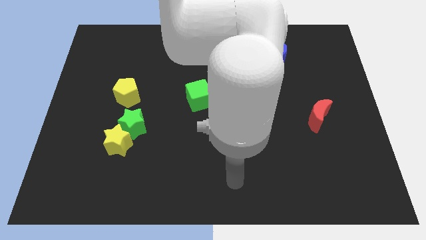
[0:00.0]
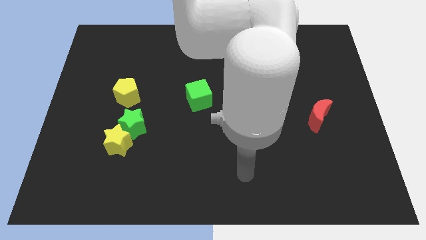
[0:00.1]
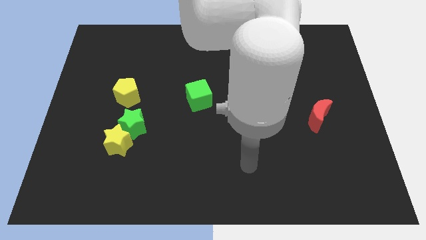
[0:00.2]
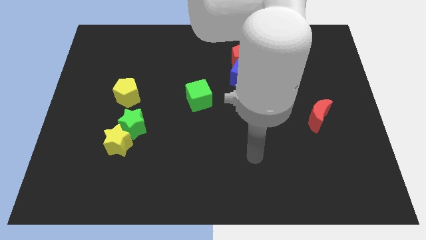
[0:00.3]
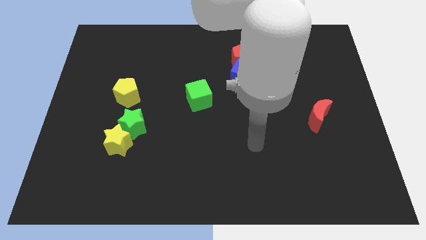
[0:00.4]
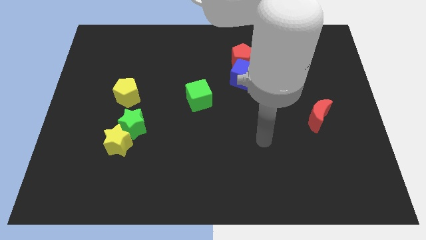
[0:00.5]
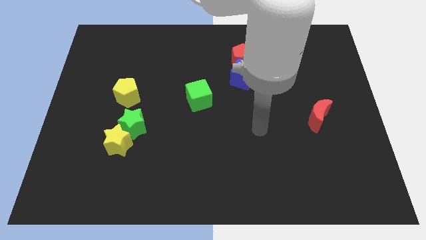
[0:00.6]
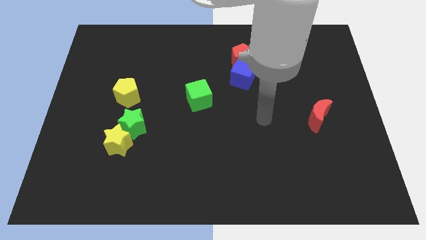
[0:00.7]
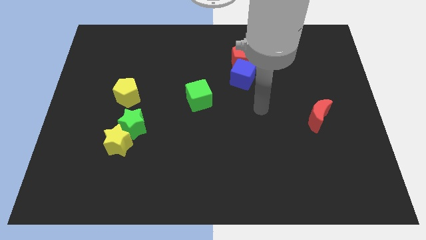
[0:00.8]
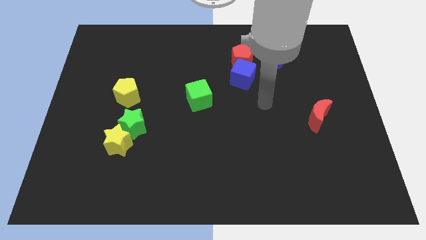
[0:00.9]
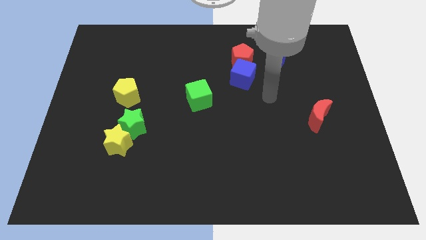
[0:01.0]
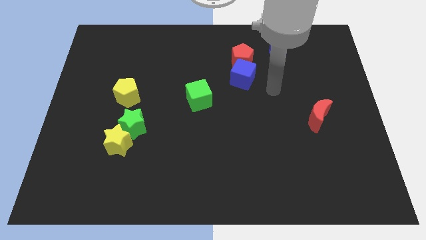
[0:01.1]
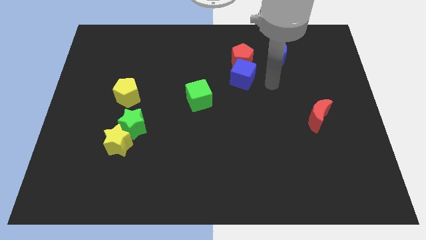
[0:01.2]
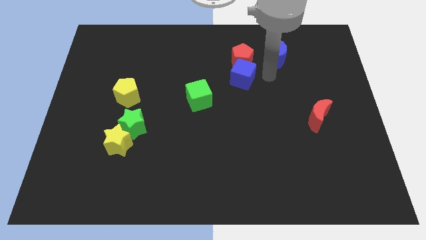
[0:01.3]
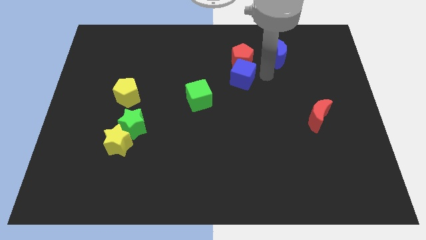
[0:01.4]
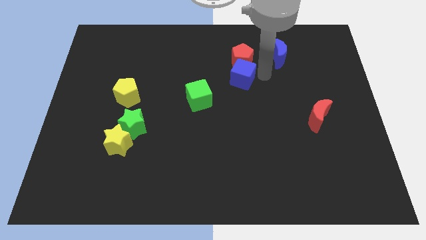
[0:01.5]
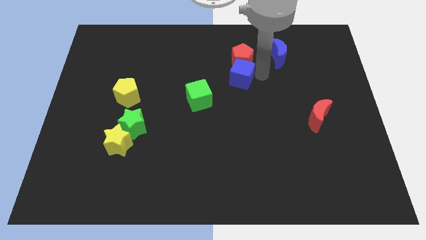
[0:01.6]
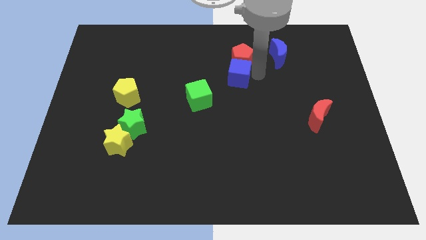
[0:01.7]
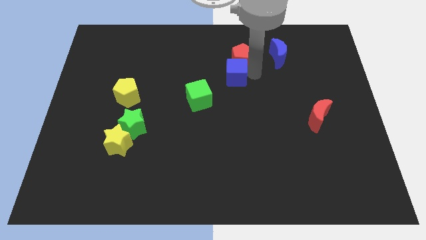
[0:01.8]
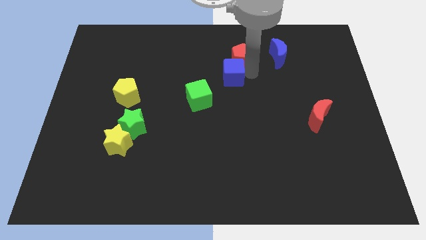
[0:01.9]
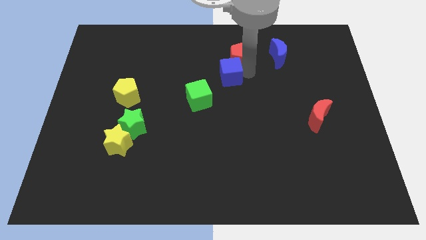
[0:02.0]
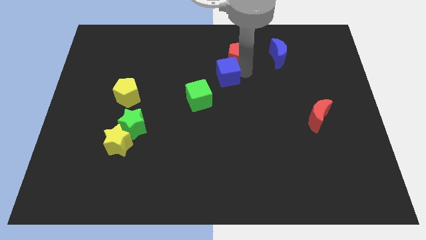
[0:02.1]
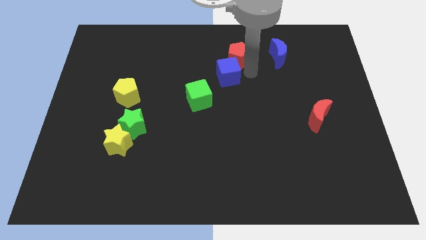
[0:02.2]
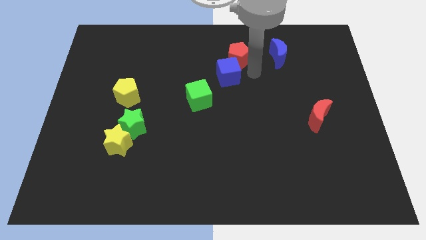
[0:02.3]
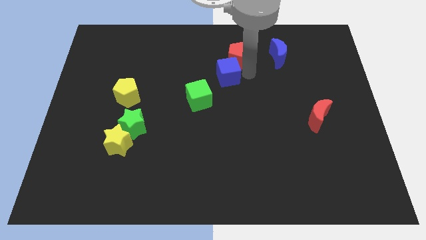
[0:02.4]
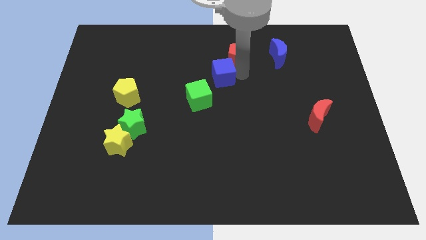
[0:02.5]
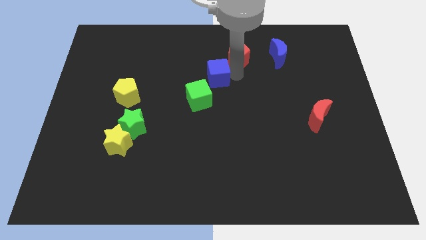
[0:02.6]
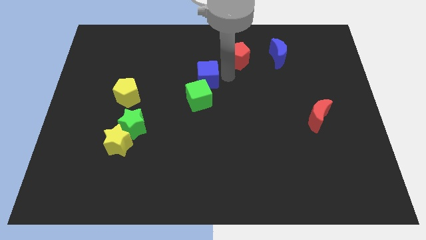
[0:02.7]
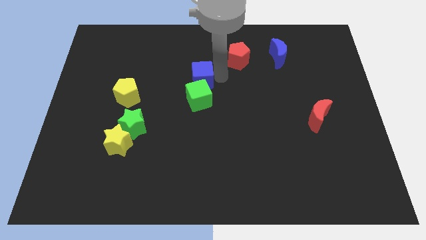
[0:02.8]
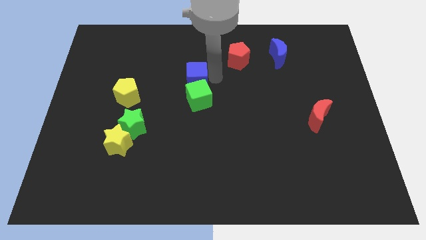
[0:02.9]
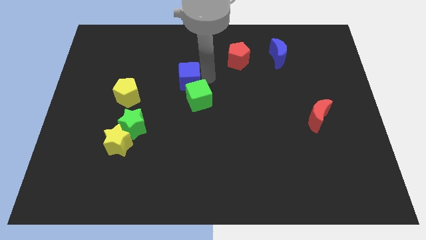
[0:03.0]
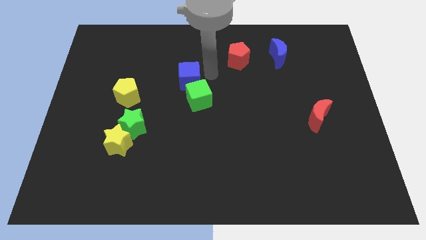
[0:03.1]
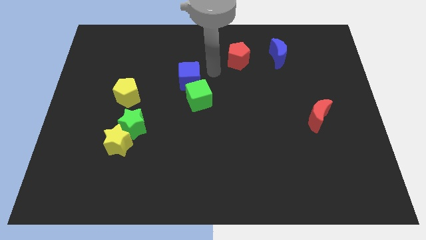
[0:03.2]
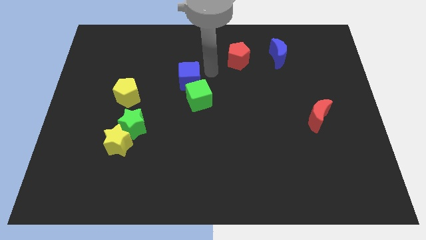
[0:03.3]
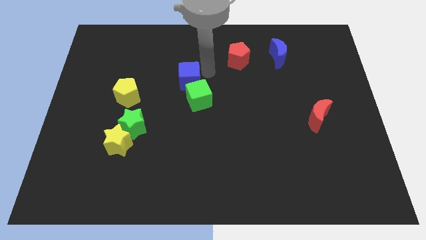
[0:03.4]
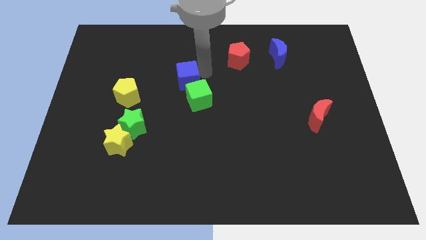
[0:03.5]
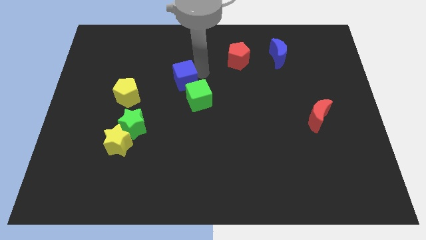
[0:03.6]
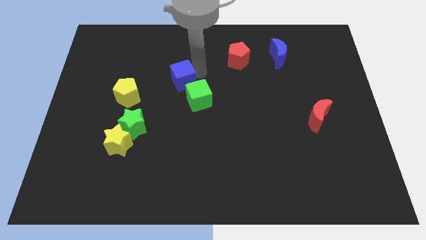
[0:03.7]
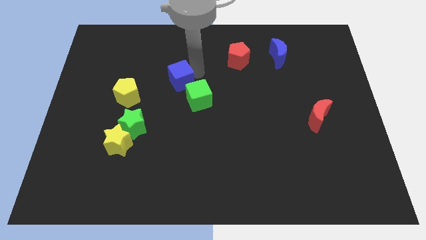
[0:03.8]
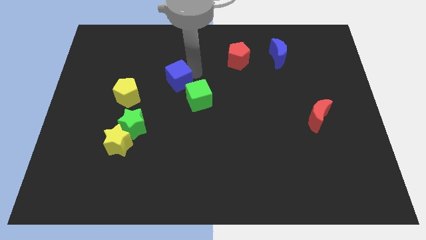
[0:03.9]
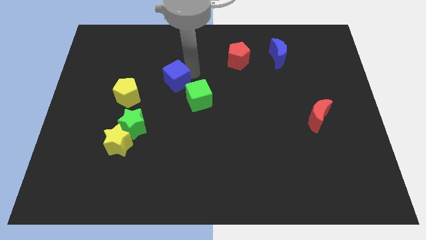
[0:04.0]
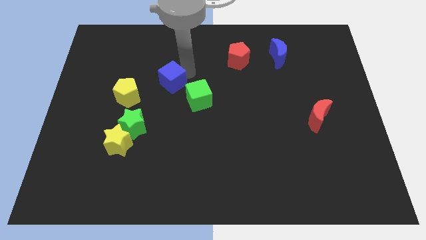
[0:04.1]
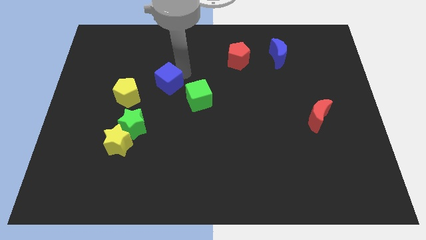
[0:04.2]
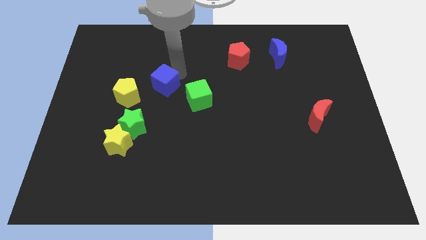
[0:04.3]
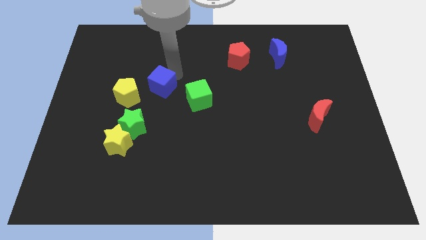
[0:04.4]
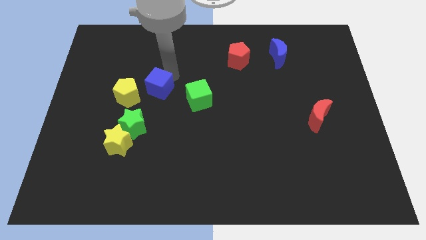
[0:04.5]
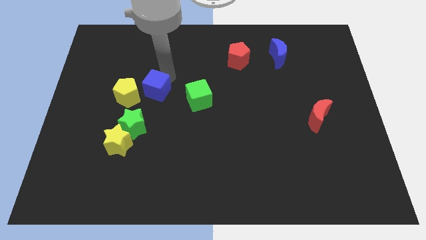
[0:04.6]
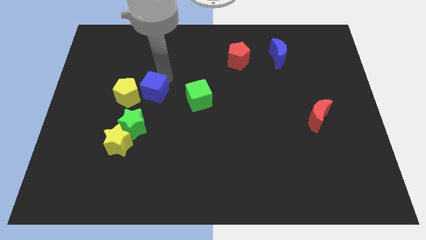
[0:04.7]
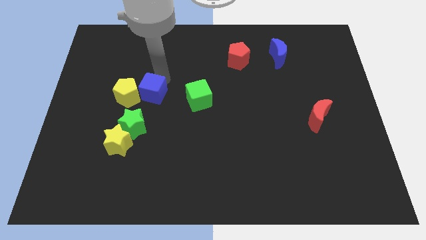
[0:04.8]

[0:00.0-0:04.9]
slide the blue cube to the bottom right side of the yellow pentagon

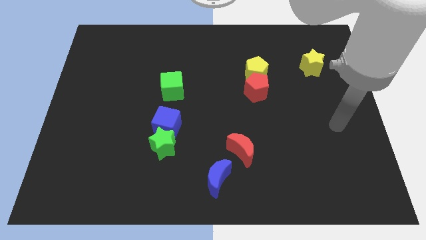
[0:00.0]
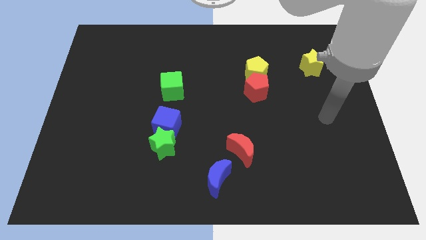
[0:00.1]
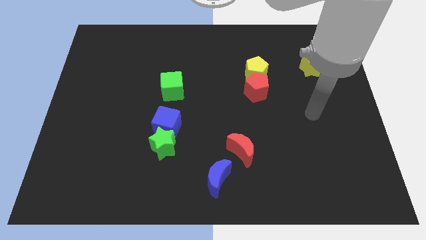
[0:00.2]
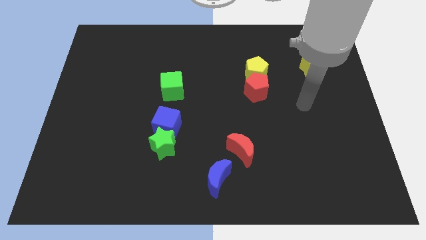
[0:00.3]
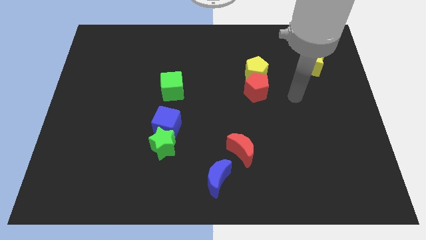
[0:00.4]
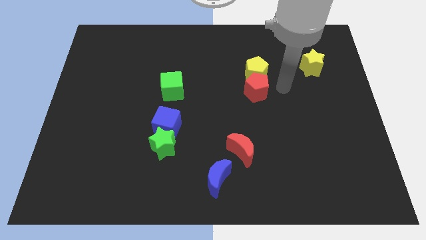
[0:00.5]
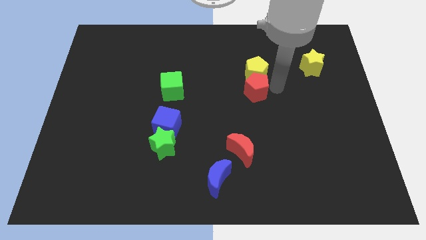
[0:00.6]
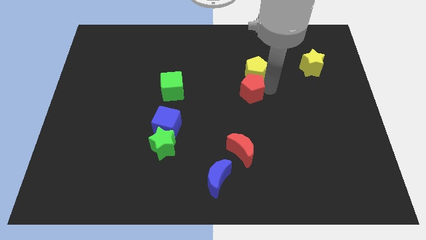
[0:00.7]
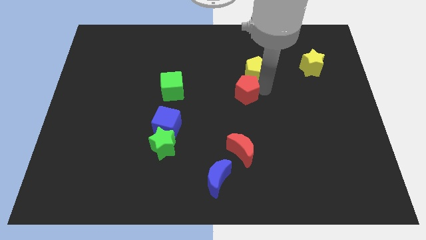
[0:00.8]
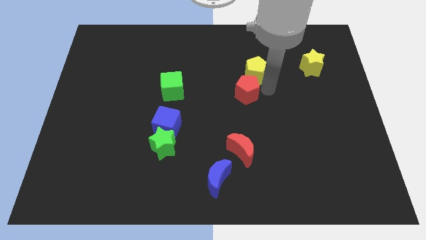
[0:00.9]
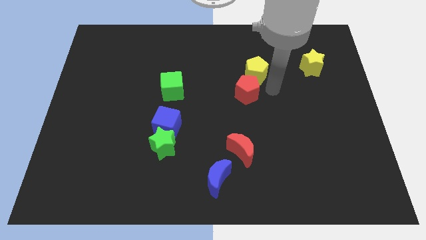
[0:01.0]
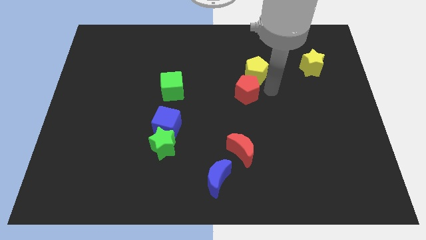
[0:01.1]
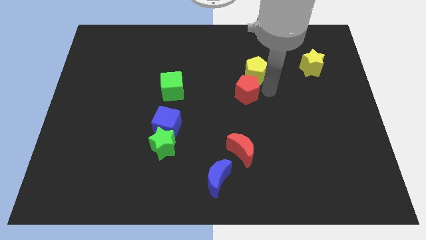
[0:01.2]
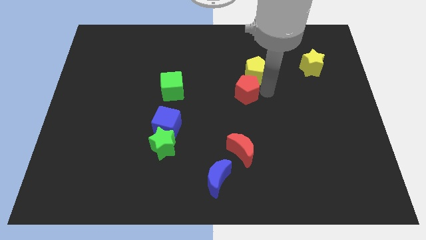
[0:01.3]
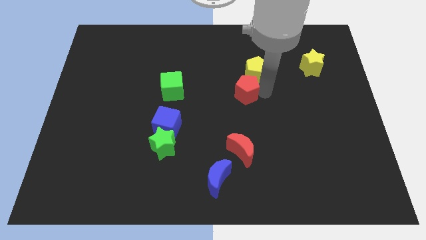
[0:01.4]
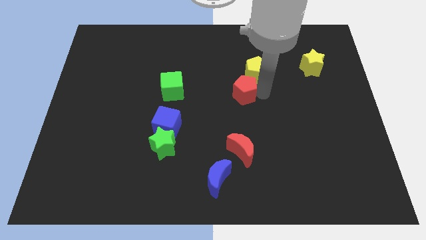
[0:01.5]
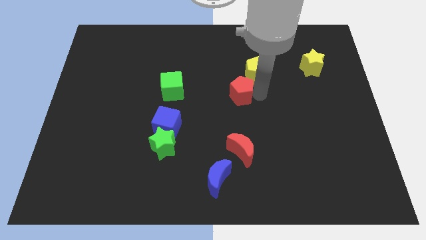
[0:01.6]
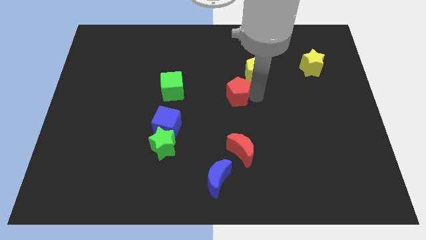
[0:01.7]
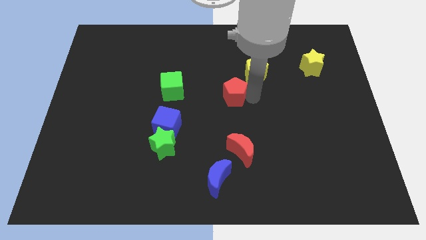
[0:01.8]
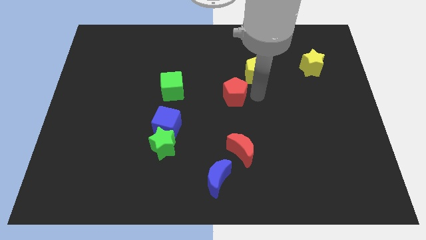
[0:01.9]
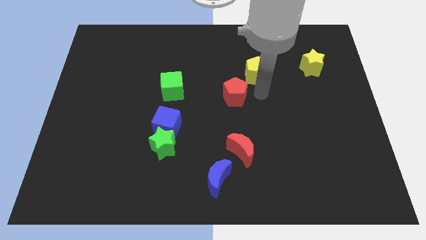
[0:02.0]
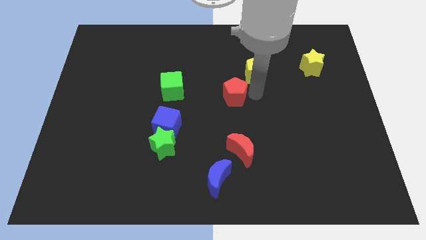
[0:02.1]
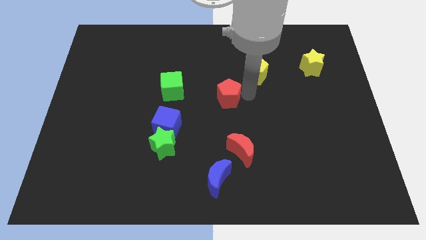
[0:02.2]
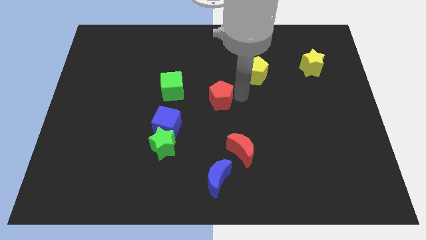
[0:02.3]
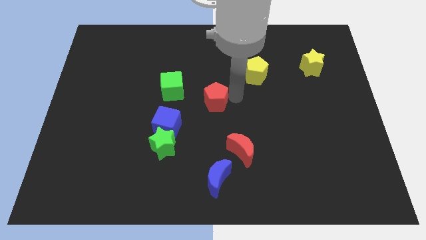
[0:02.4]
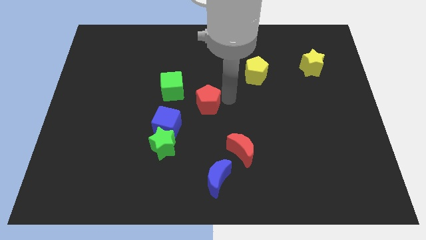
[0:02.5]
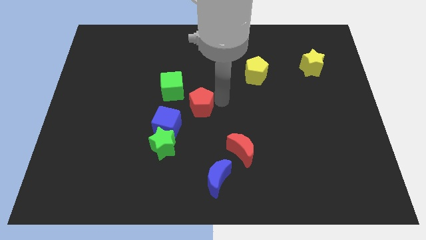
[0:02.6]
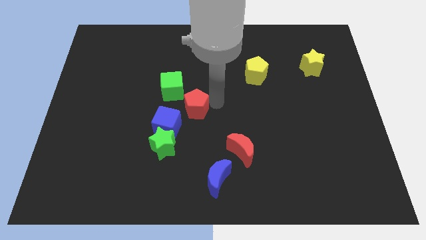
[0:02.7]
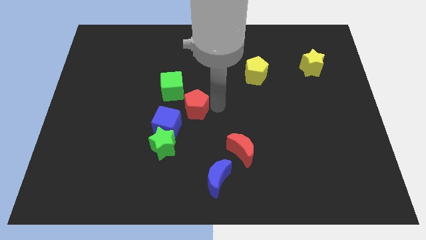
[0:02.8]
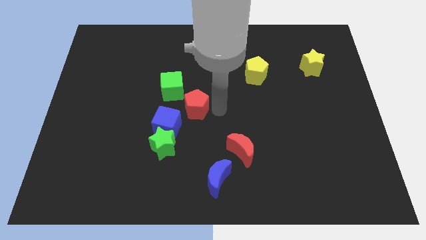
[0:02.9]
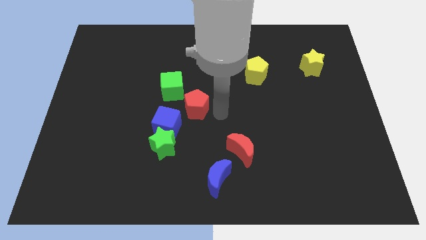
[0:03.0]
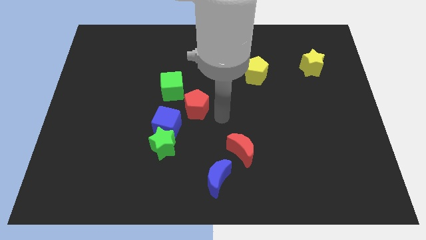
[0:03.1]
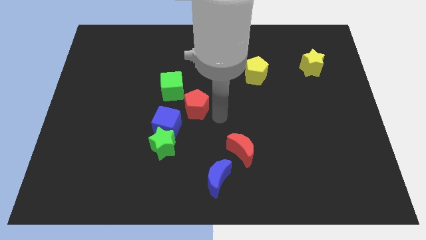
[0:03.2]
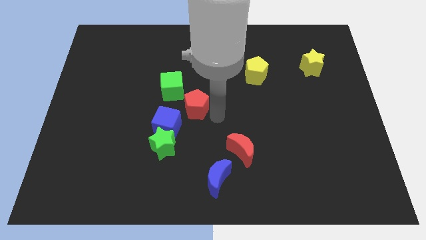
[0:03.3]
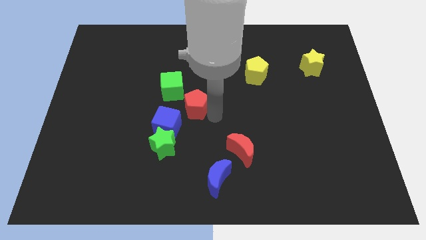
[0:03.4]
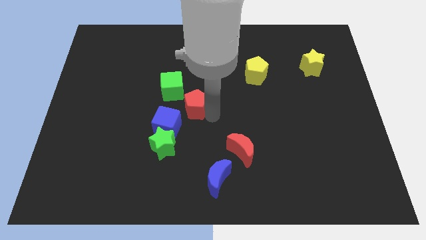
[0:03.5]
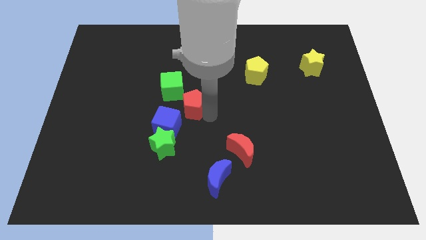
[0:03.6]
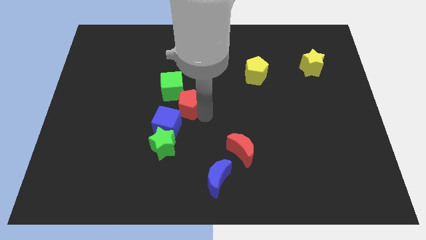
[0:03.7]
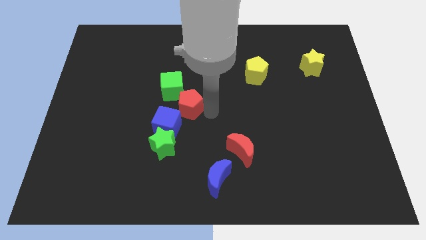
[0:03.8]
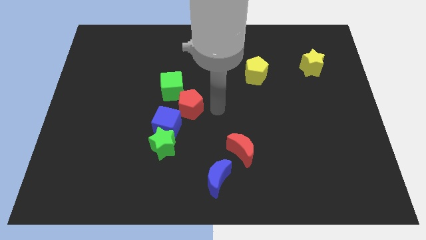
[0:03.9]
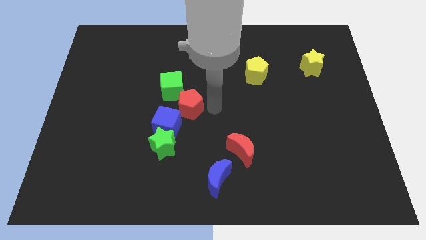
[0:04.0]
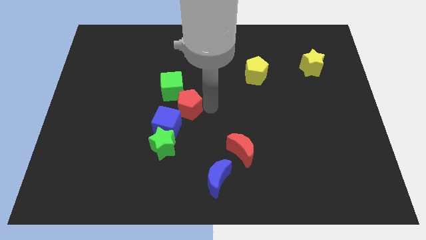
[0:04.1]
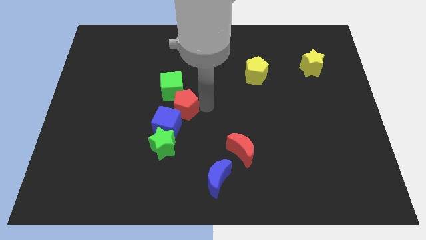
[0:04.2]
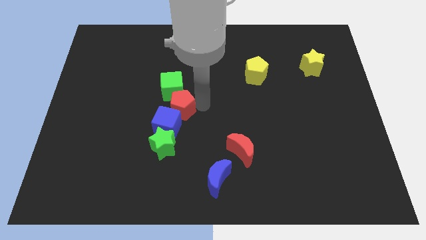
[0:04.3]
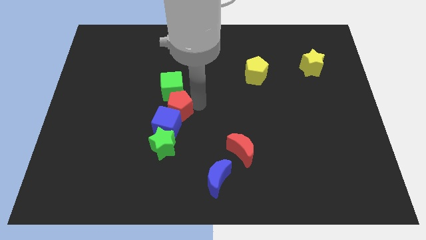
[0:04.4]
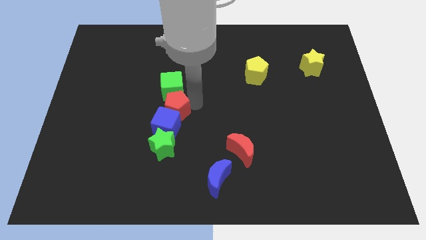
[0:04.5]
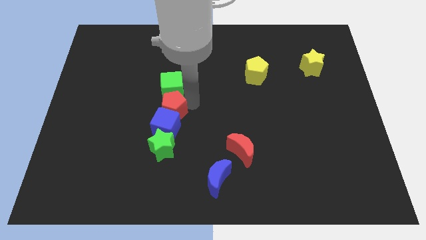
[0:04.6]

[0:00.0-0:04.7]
push the red pentagon to the bottom left of the green cube
